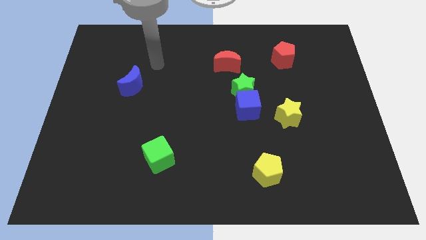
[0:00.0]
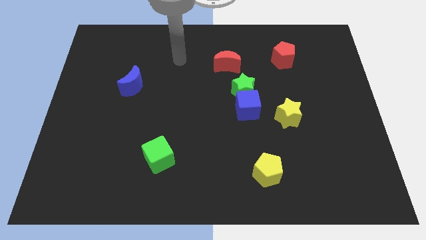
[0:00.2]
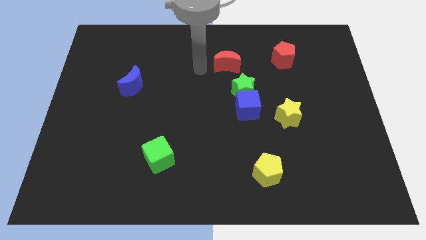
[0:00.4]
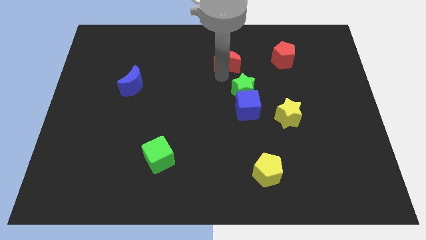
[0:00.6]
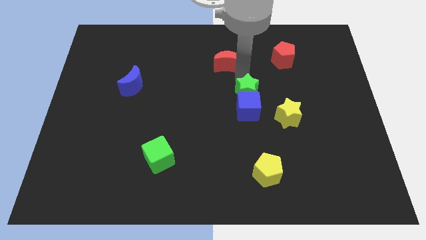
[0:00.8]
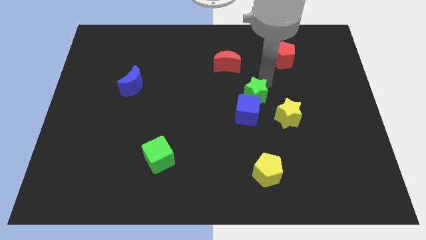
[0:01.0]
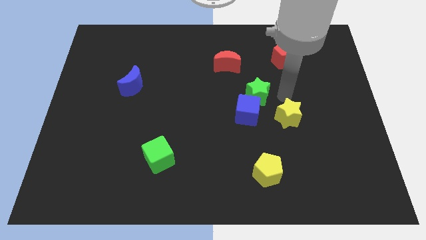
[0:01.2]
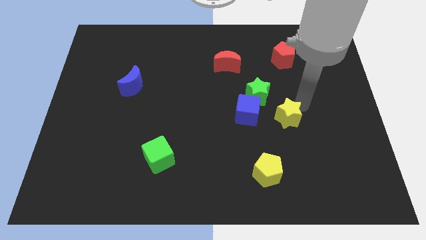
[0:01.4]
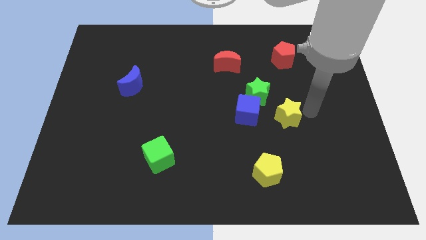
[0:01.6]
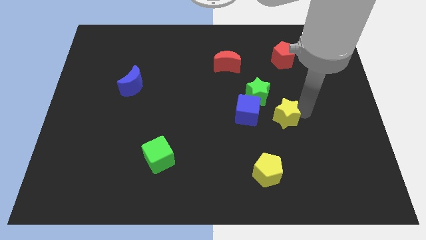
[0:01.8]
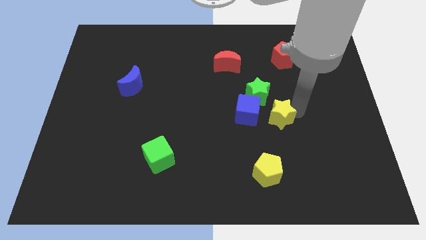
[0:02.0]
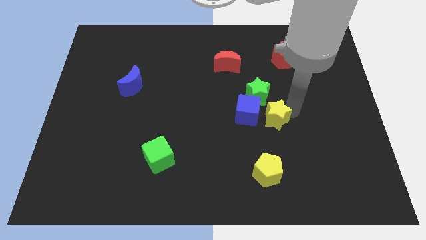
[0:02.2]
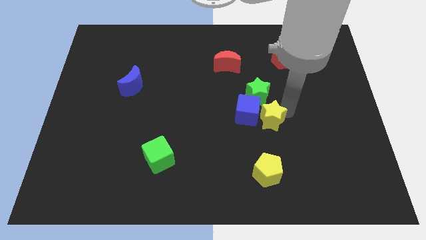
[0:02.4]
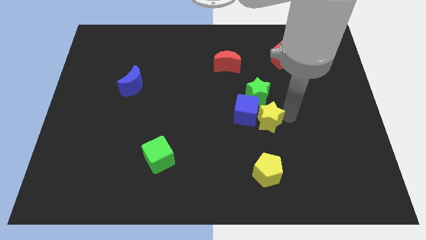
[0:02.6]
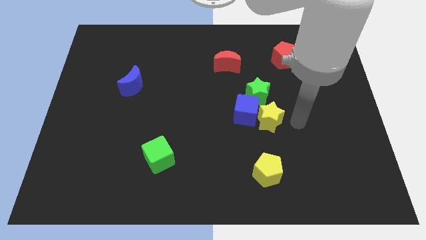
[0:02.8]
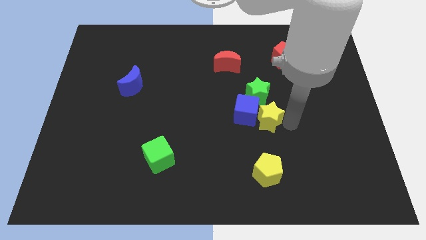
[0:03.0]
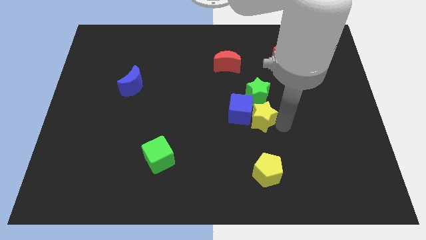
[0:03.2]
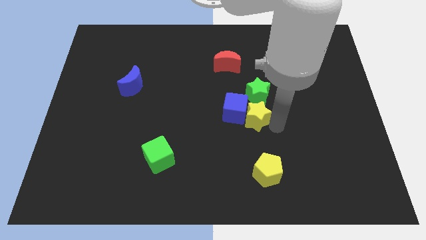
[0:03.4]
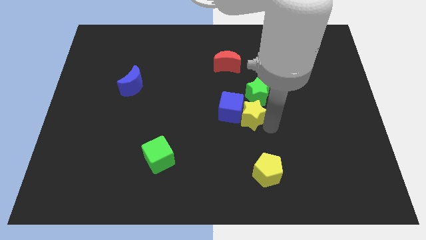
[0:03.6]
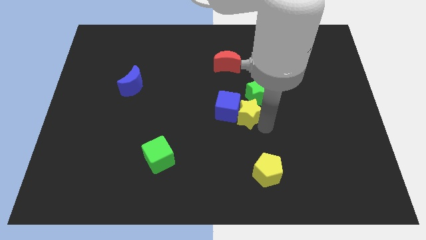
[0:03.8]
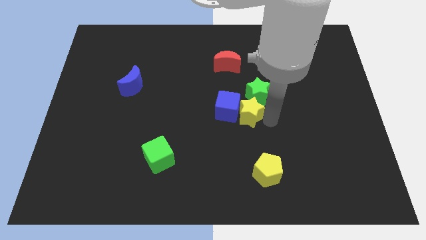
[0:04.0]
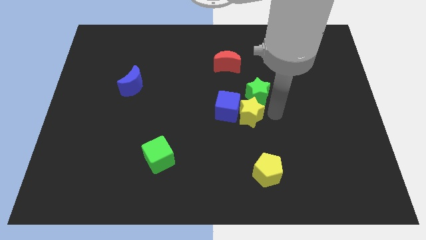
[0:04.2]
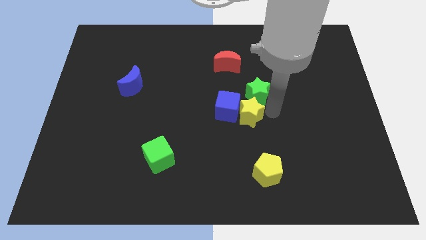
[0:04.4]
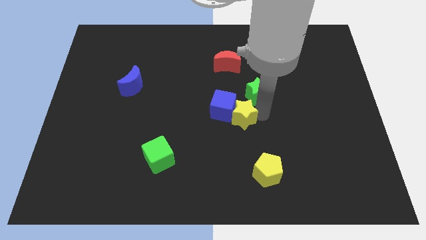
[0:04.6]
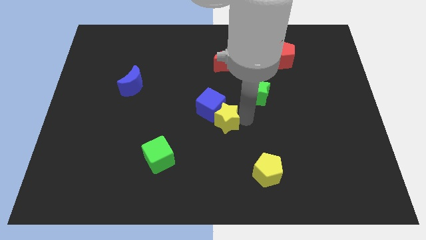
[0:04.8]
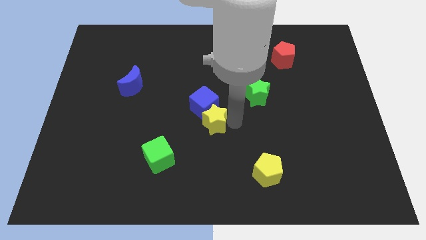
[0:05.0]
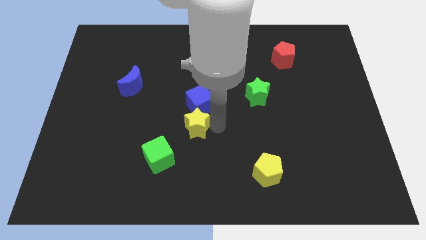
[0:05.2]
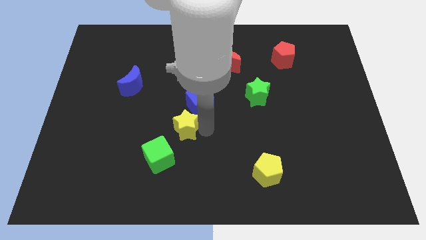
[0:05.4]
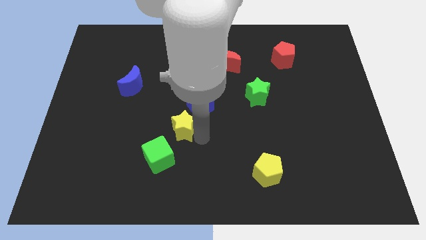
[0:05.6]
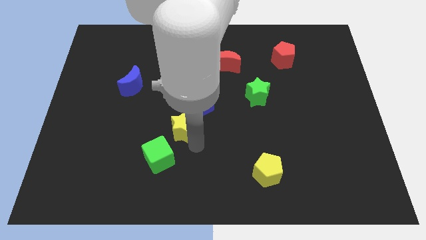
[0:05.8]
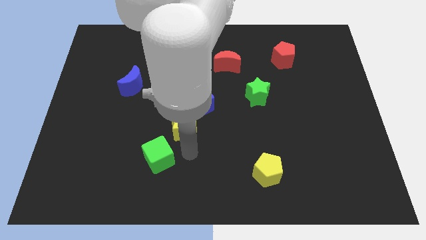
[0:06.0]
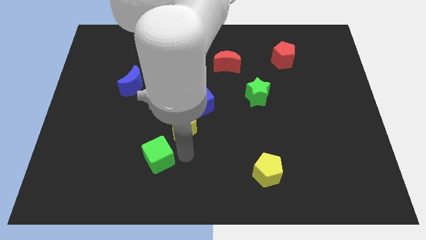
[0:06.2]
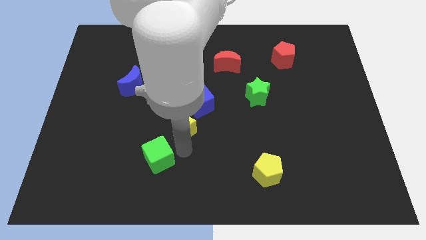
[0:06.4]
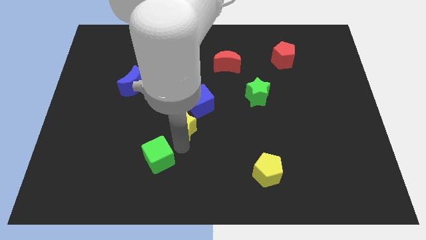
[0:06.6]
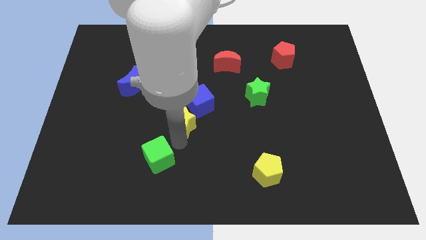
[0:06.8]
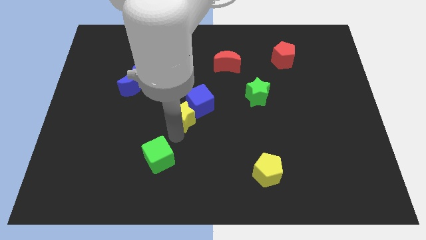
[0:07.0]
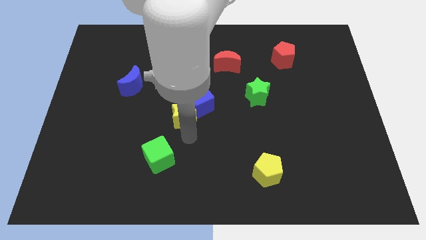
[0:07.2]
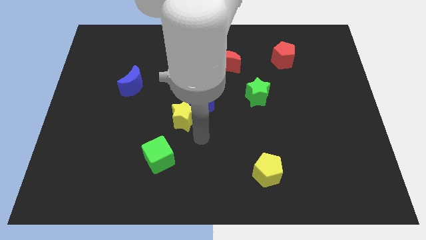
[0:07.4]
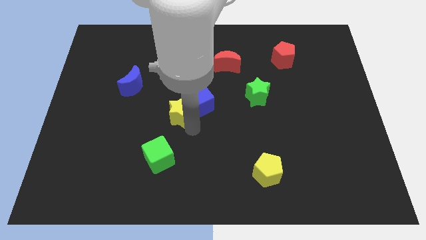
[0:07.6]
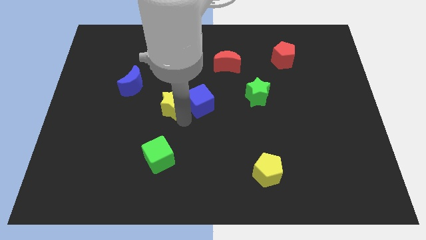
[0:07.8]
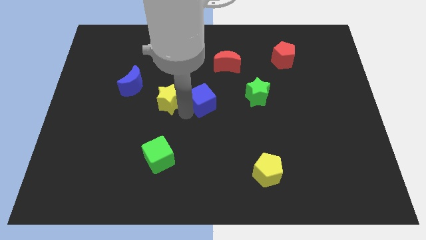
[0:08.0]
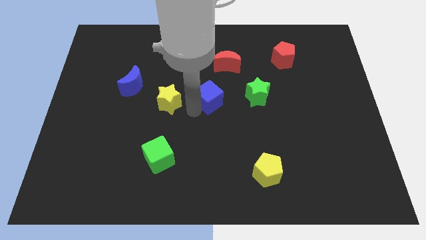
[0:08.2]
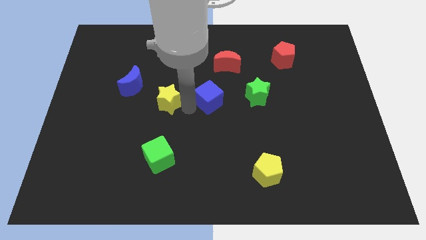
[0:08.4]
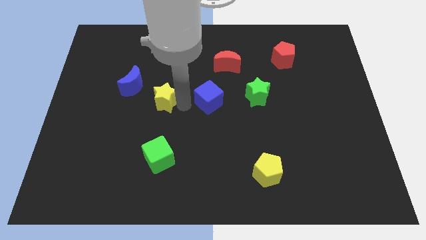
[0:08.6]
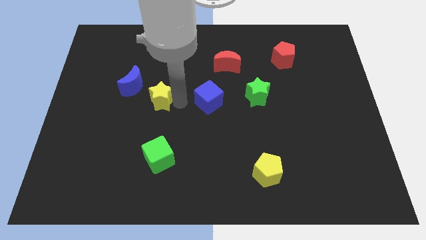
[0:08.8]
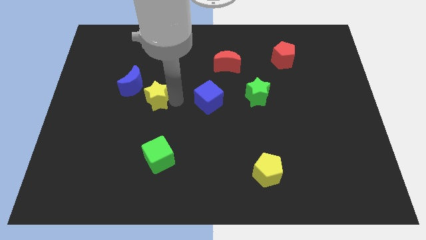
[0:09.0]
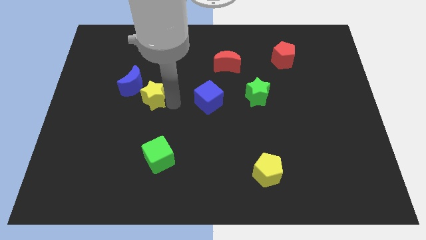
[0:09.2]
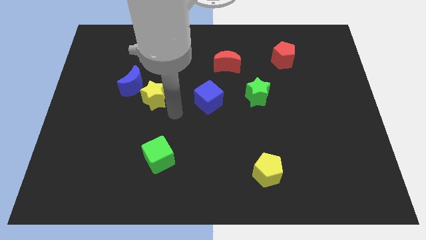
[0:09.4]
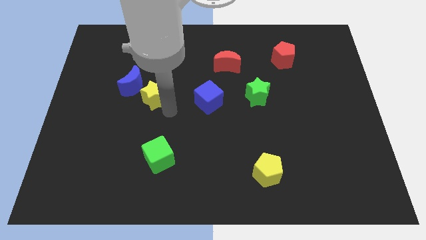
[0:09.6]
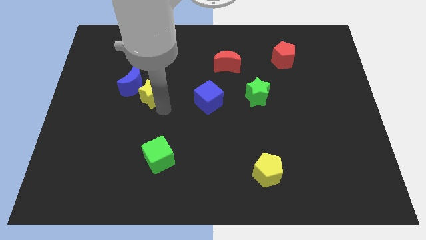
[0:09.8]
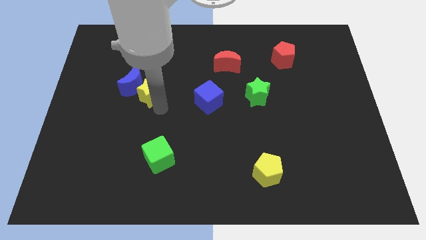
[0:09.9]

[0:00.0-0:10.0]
put the yellow star close to the blue moon

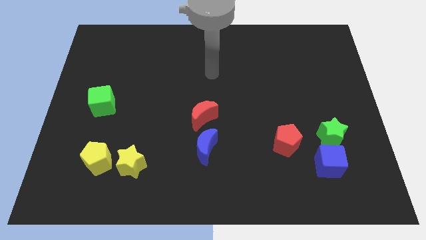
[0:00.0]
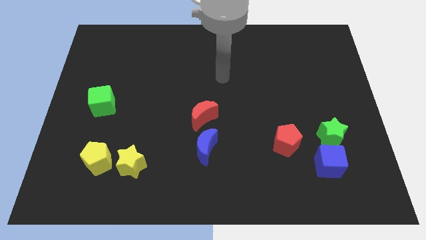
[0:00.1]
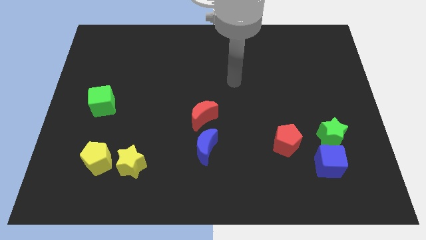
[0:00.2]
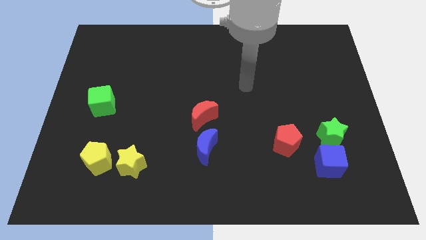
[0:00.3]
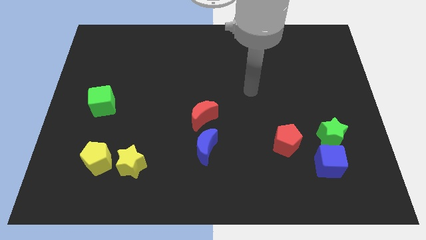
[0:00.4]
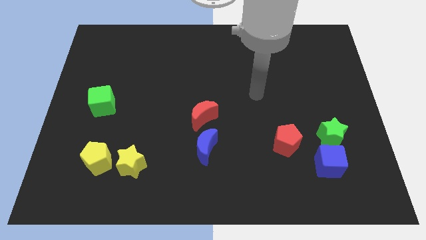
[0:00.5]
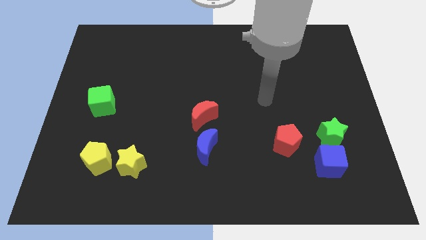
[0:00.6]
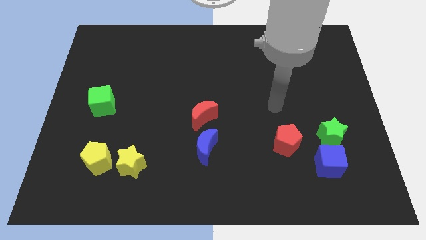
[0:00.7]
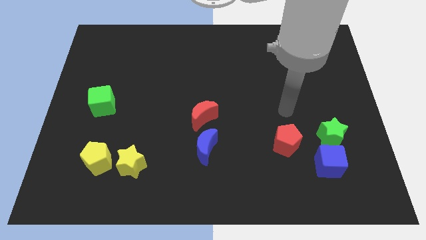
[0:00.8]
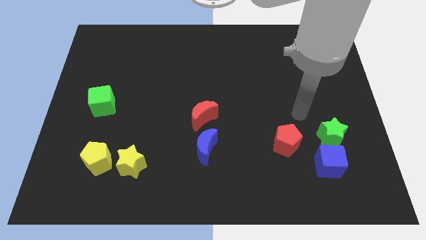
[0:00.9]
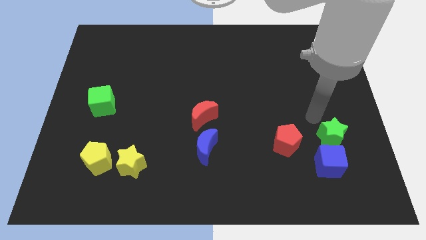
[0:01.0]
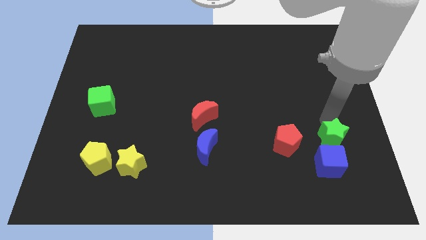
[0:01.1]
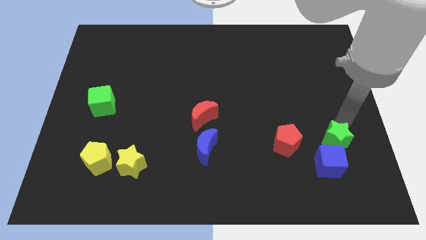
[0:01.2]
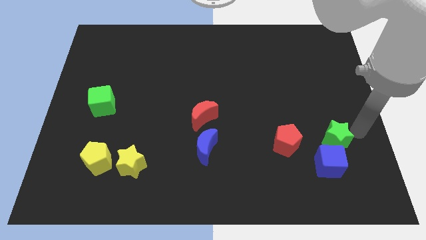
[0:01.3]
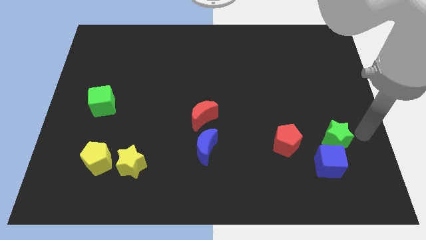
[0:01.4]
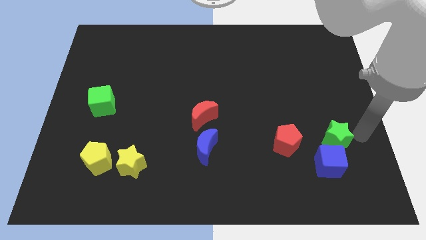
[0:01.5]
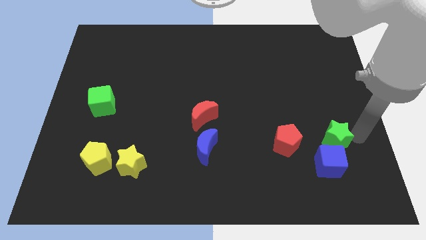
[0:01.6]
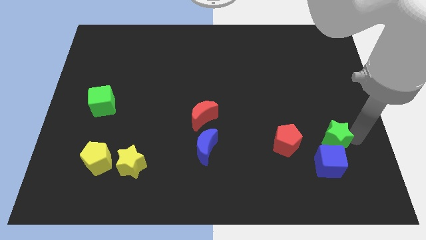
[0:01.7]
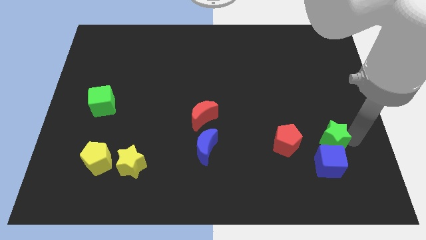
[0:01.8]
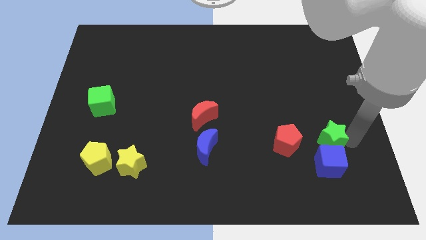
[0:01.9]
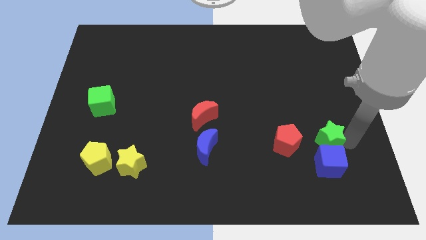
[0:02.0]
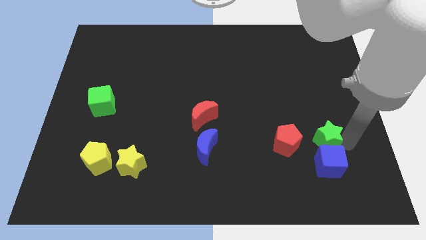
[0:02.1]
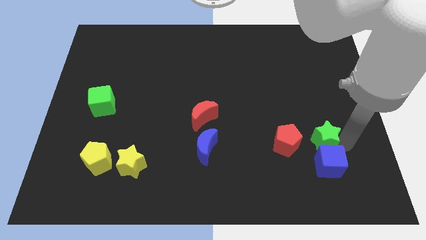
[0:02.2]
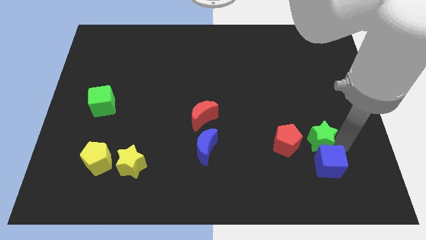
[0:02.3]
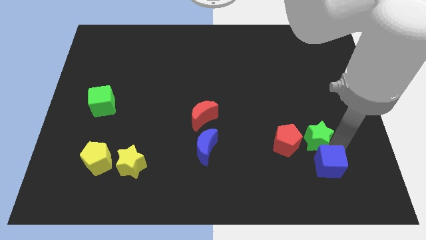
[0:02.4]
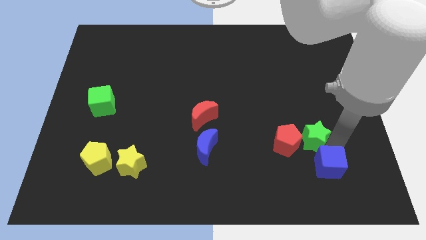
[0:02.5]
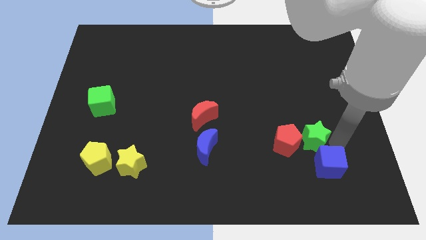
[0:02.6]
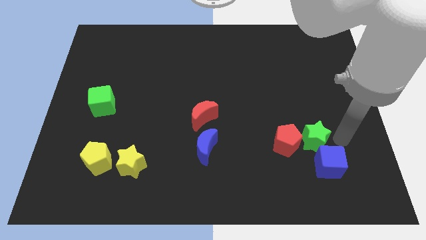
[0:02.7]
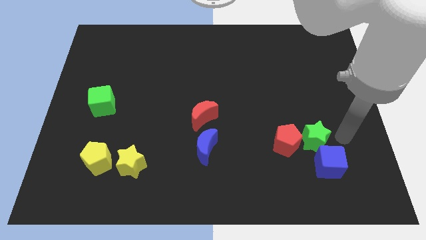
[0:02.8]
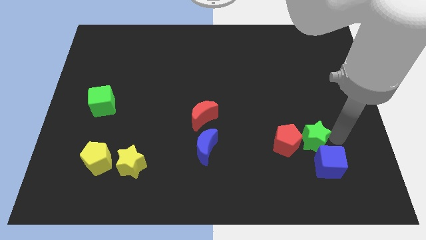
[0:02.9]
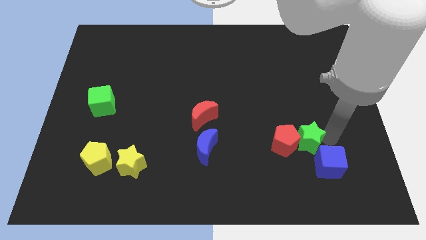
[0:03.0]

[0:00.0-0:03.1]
slide the green star to the red pentagon
